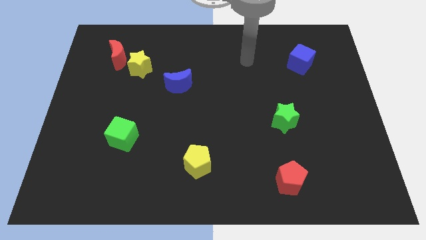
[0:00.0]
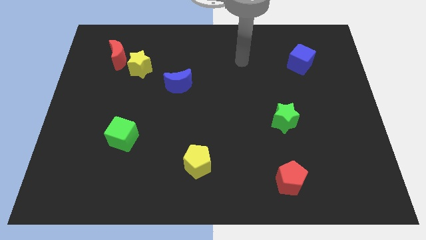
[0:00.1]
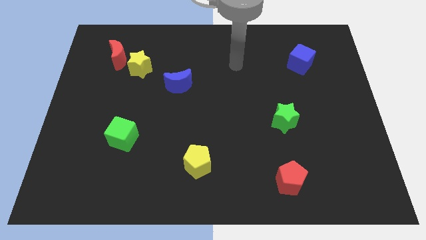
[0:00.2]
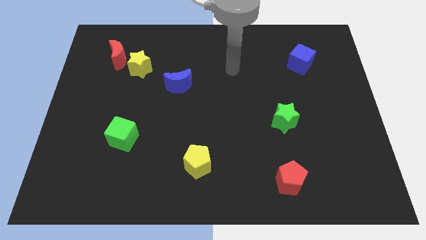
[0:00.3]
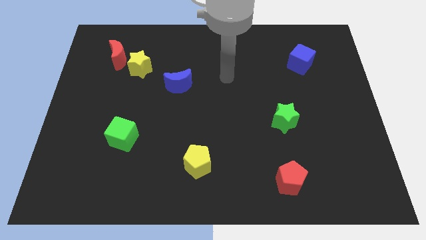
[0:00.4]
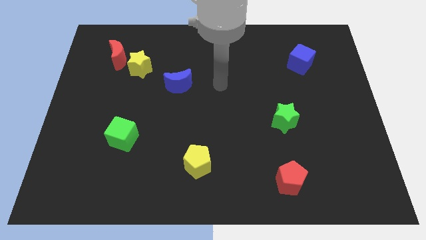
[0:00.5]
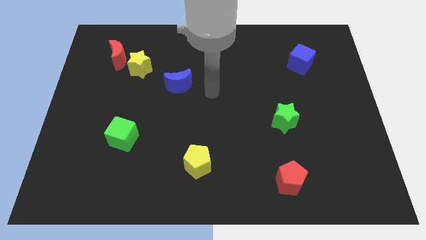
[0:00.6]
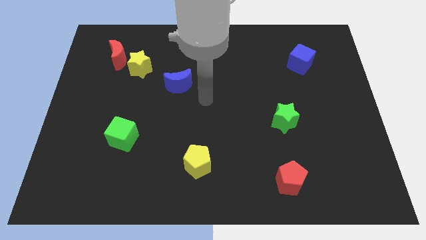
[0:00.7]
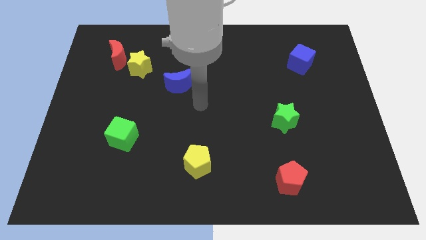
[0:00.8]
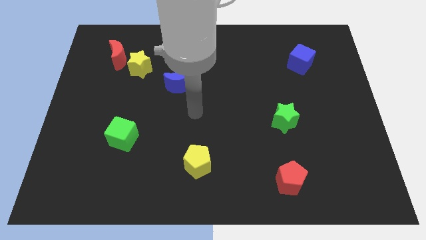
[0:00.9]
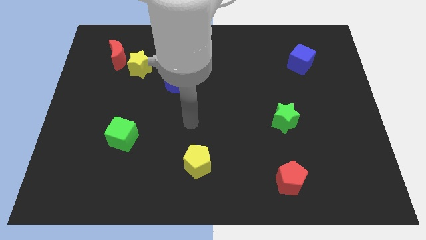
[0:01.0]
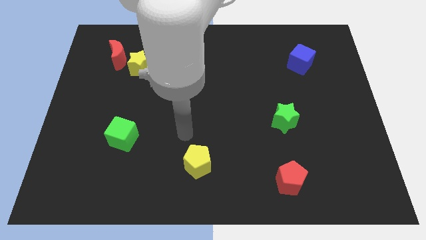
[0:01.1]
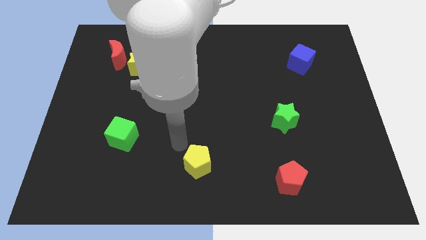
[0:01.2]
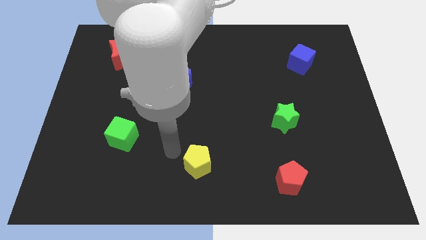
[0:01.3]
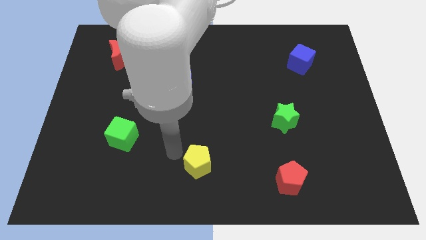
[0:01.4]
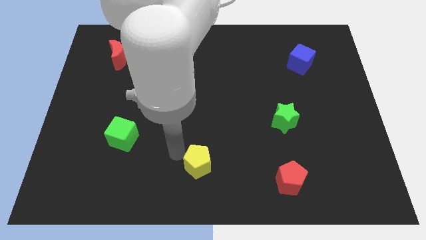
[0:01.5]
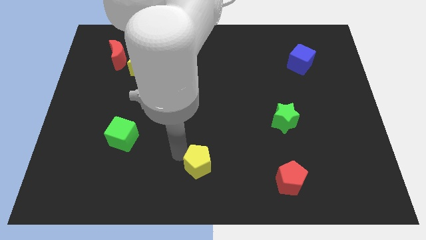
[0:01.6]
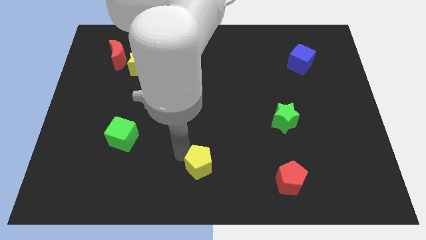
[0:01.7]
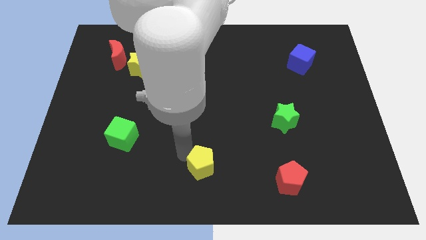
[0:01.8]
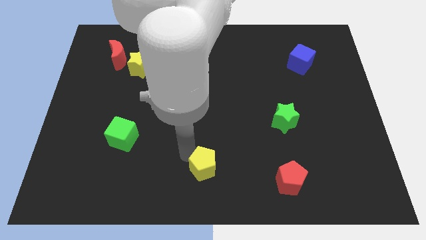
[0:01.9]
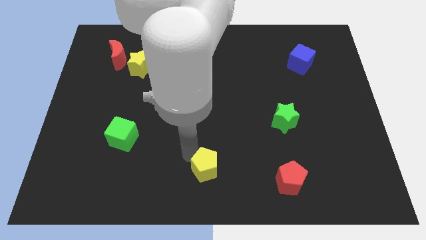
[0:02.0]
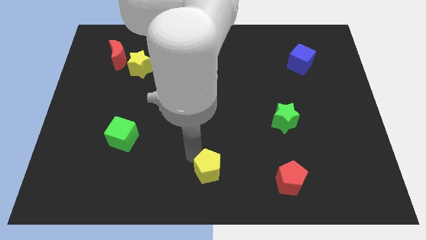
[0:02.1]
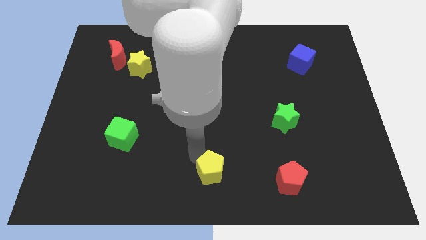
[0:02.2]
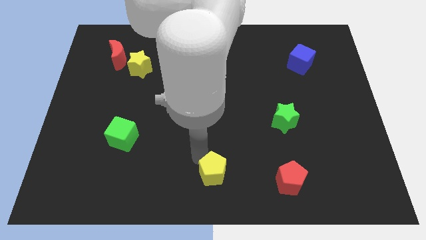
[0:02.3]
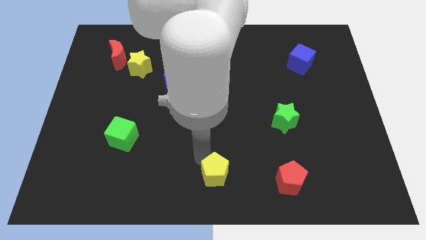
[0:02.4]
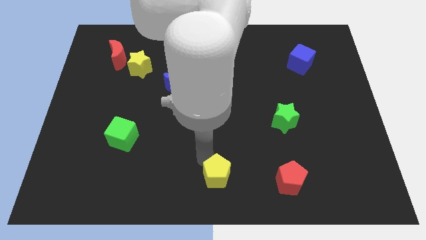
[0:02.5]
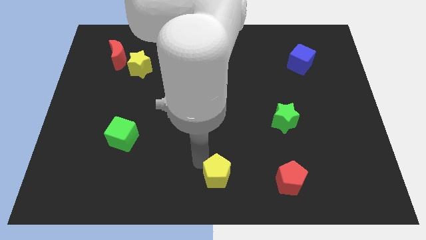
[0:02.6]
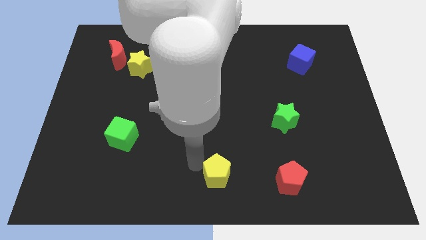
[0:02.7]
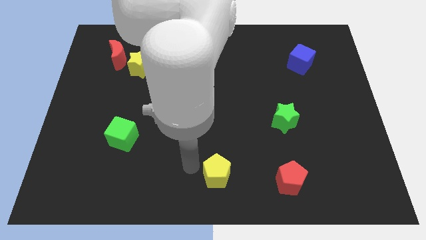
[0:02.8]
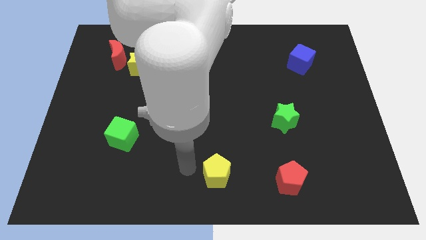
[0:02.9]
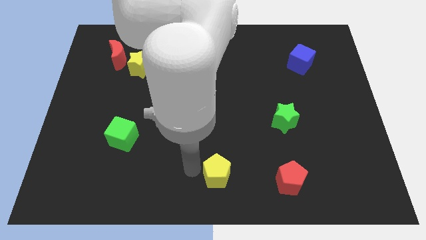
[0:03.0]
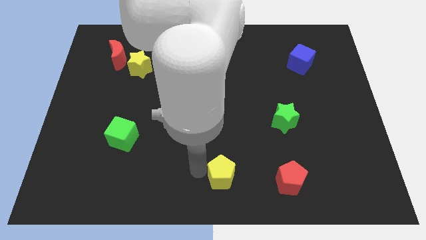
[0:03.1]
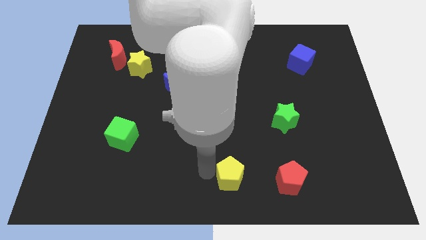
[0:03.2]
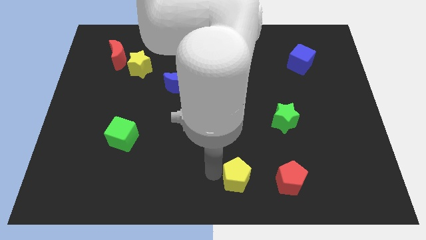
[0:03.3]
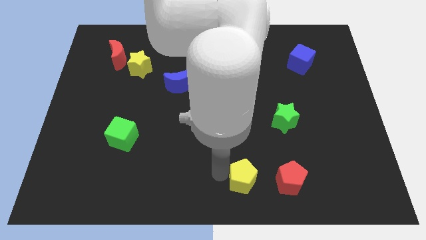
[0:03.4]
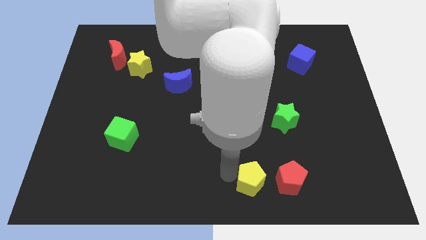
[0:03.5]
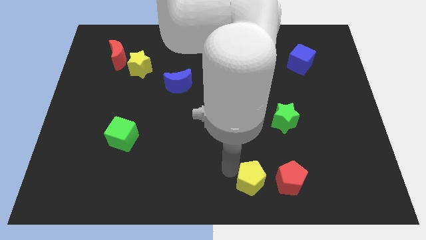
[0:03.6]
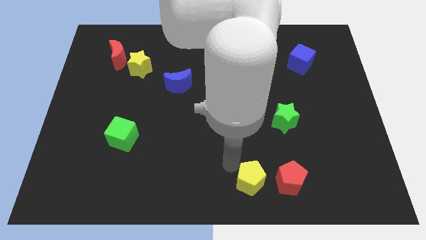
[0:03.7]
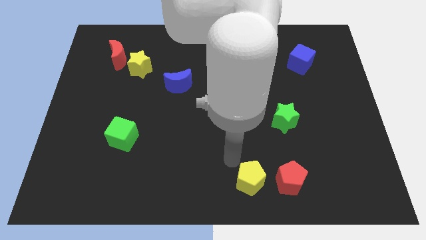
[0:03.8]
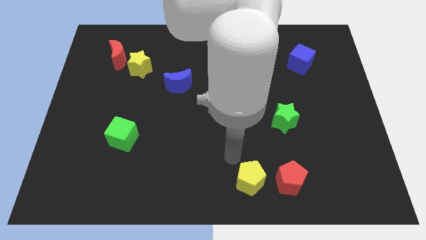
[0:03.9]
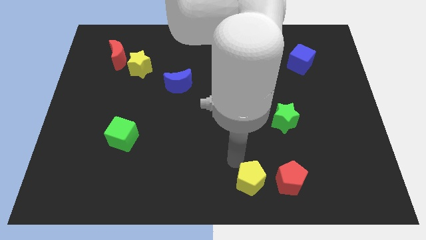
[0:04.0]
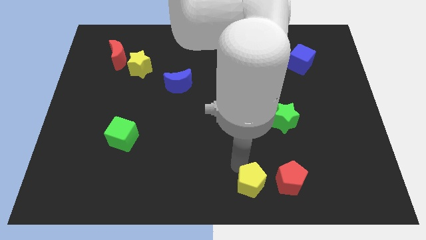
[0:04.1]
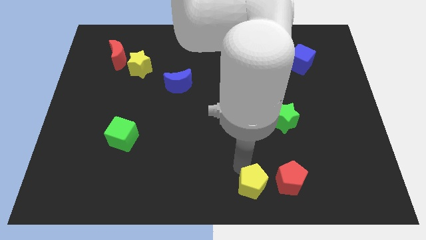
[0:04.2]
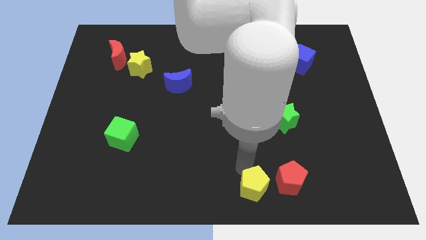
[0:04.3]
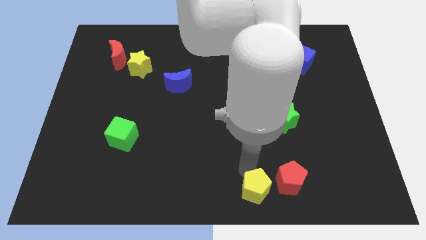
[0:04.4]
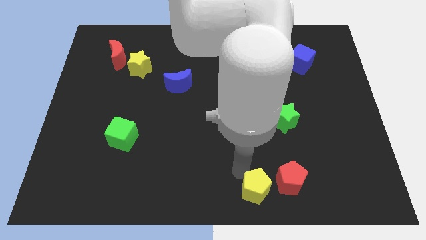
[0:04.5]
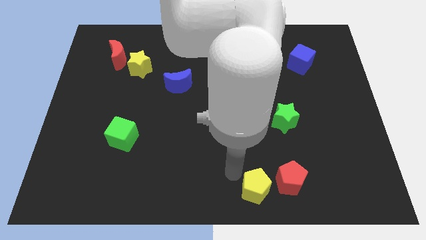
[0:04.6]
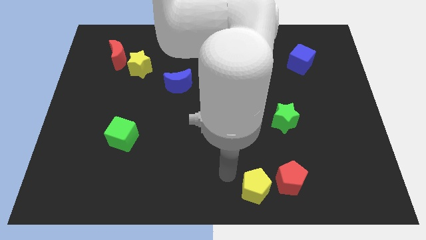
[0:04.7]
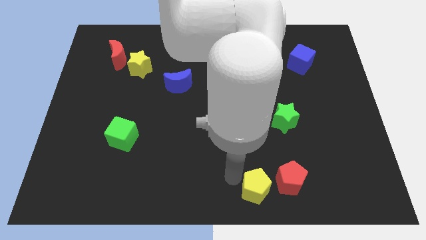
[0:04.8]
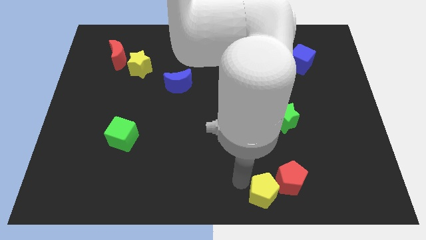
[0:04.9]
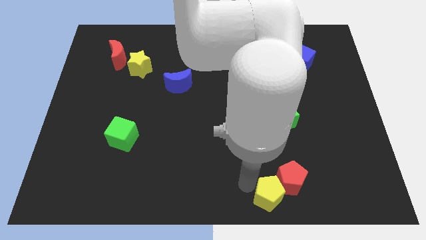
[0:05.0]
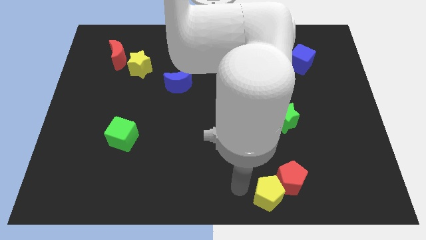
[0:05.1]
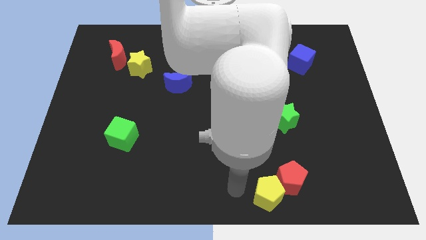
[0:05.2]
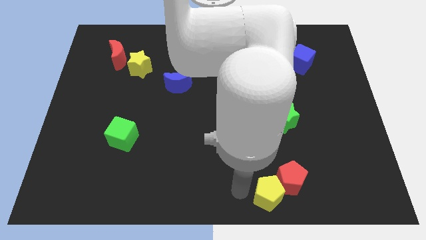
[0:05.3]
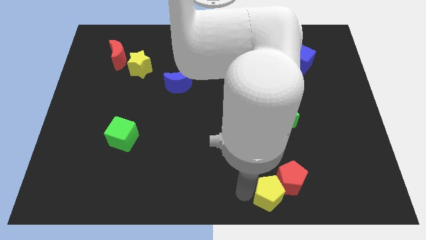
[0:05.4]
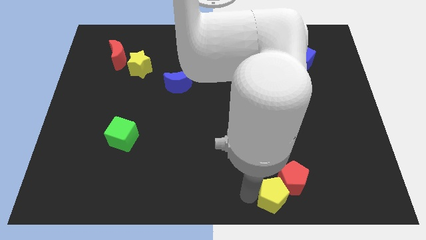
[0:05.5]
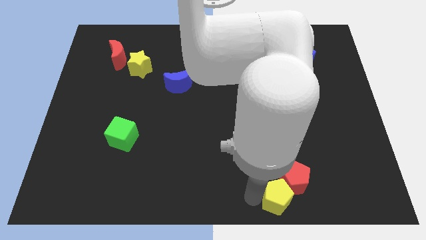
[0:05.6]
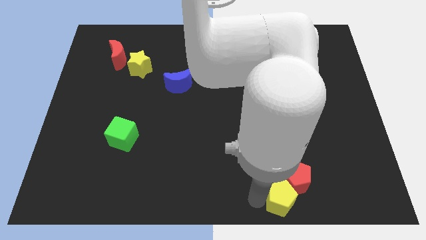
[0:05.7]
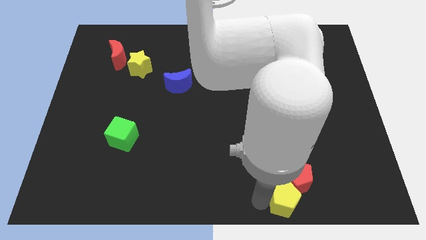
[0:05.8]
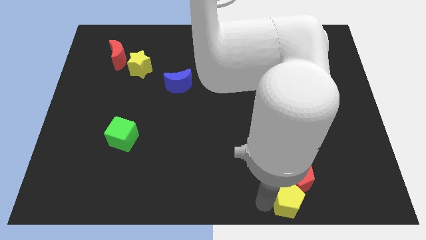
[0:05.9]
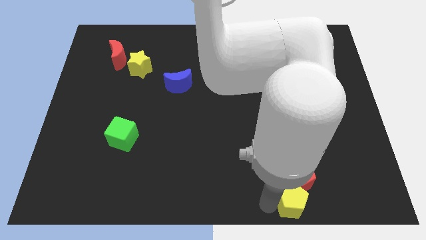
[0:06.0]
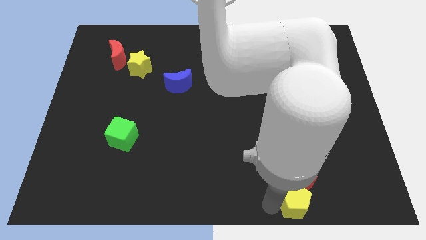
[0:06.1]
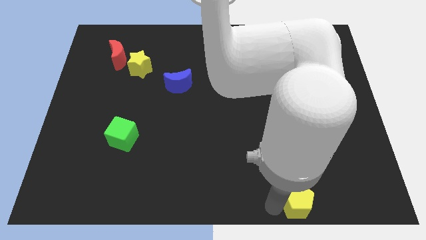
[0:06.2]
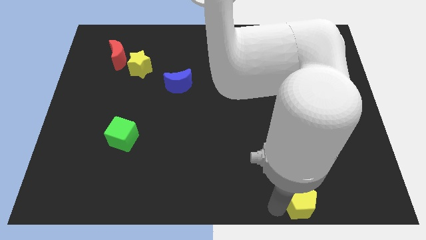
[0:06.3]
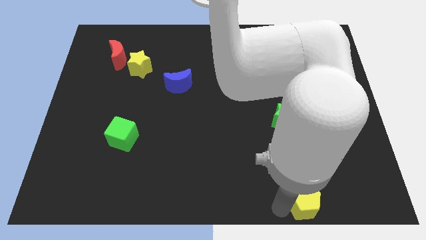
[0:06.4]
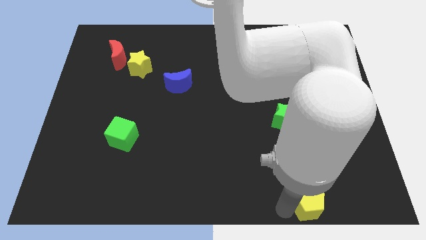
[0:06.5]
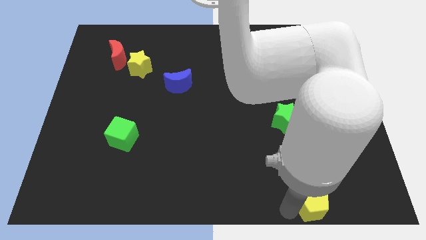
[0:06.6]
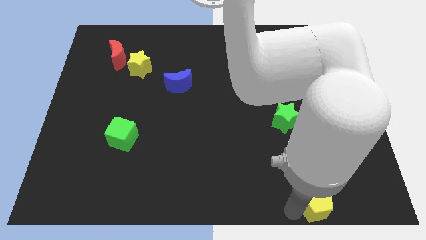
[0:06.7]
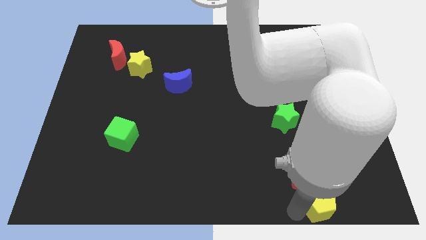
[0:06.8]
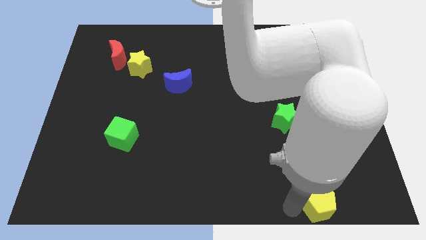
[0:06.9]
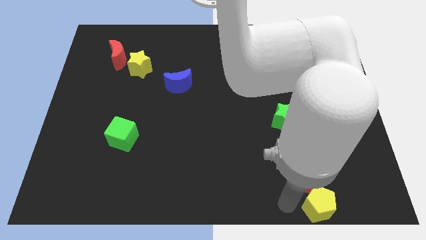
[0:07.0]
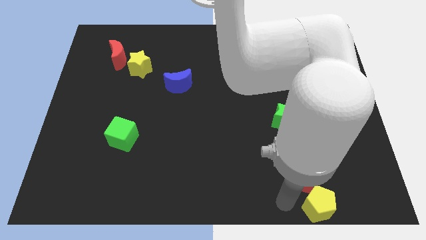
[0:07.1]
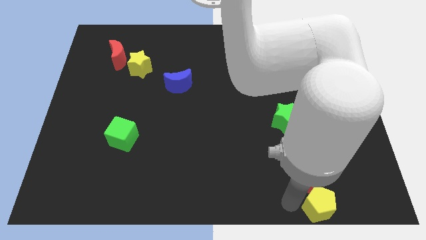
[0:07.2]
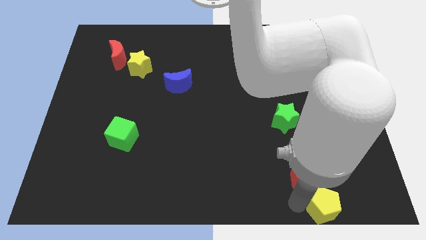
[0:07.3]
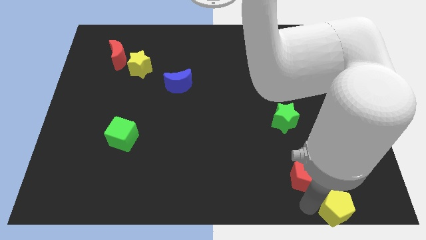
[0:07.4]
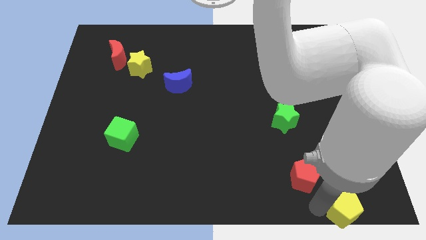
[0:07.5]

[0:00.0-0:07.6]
move the yellow pentagon to the bottom right
